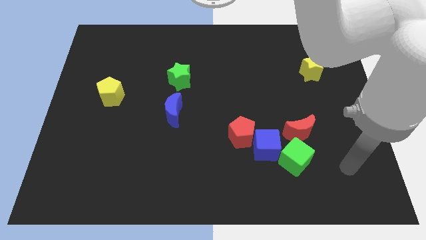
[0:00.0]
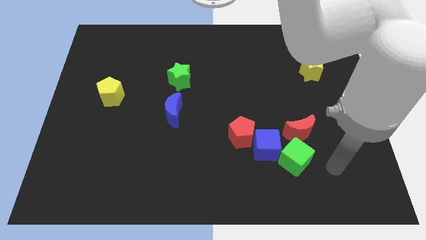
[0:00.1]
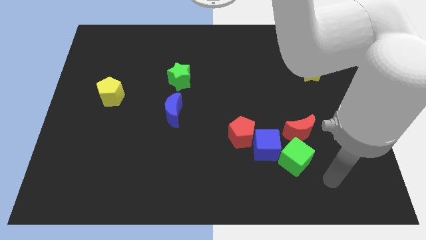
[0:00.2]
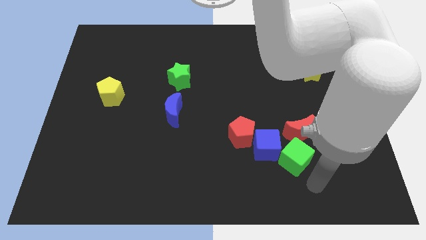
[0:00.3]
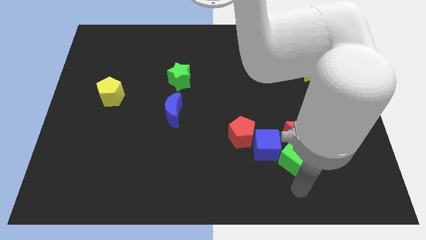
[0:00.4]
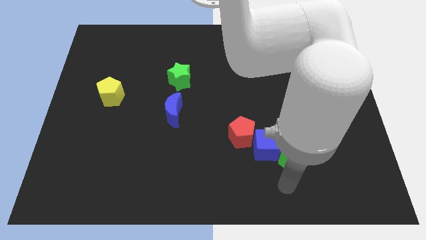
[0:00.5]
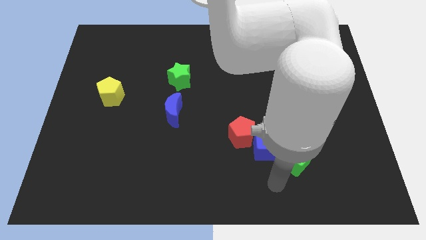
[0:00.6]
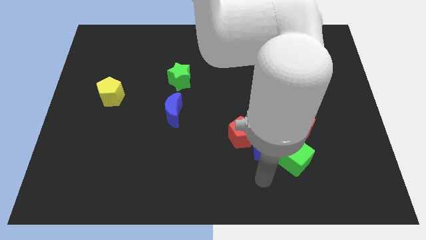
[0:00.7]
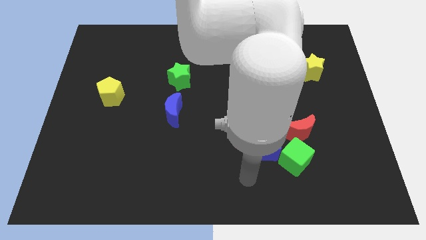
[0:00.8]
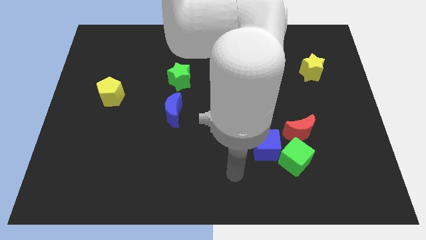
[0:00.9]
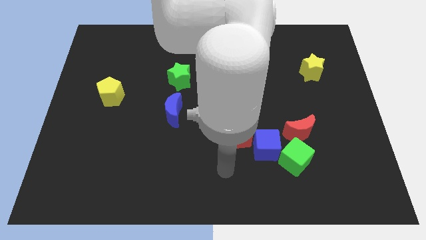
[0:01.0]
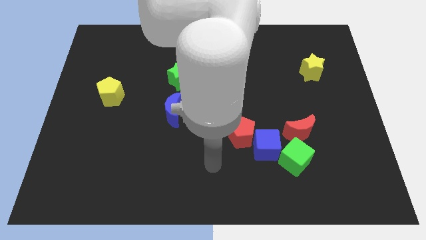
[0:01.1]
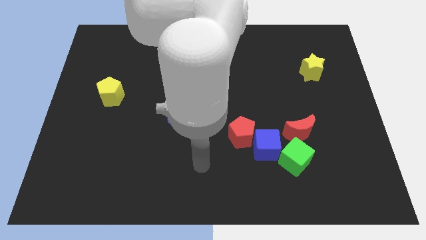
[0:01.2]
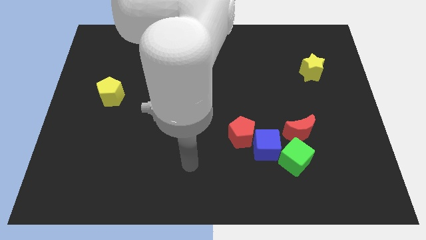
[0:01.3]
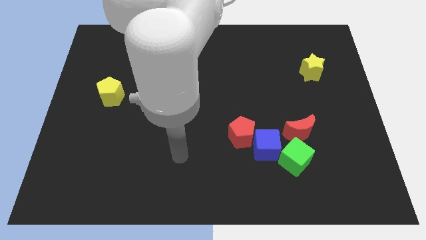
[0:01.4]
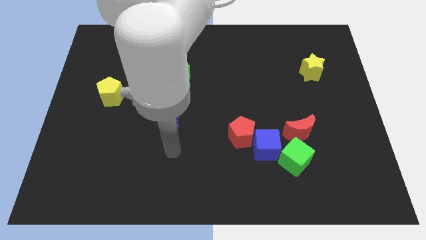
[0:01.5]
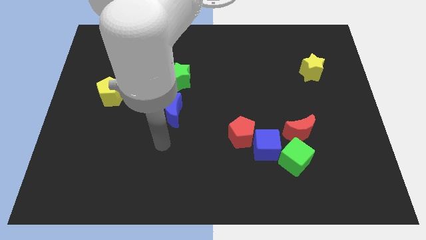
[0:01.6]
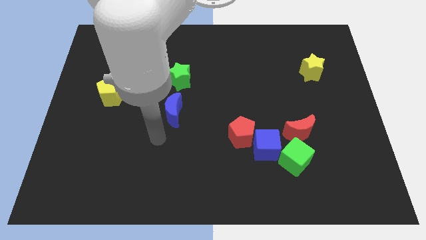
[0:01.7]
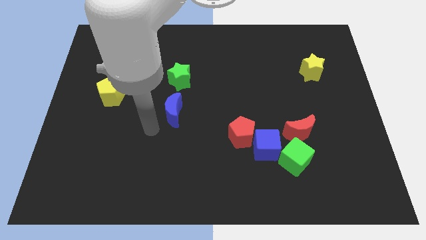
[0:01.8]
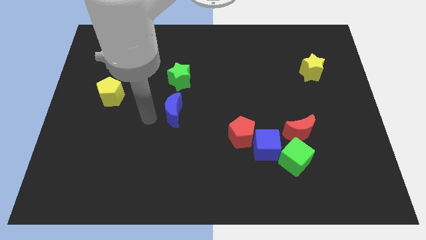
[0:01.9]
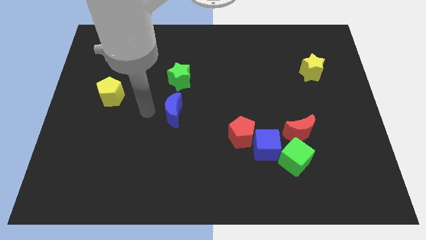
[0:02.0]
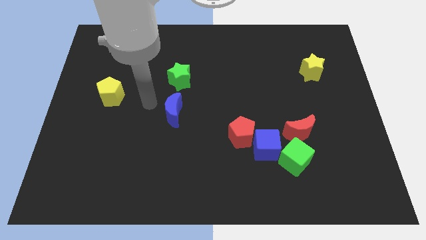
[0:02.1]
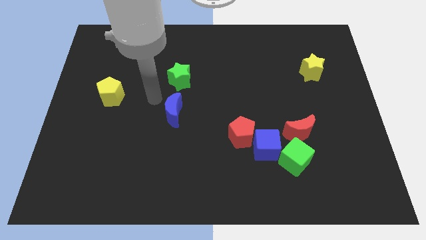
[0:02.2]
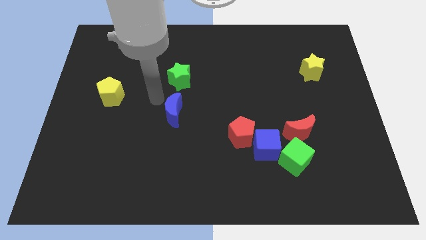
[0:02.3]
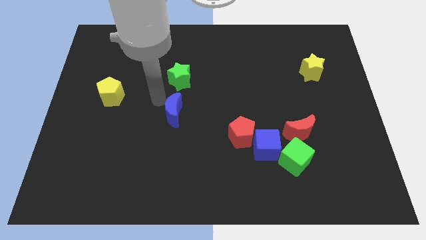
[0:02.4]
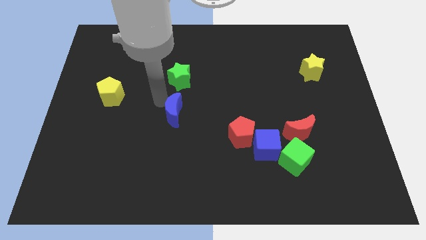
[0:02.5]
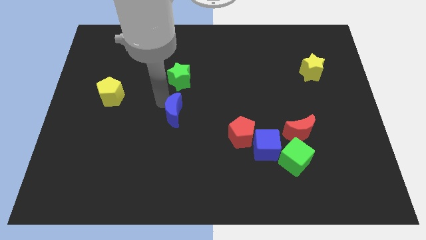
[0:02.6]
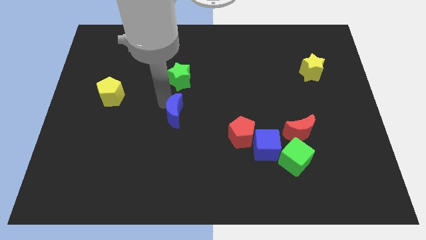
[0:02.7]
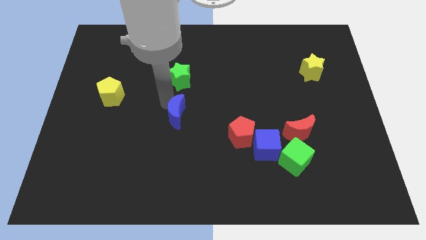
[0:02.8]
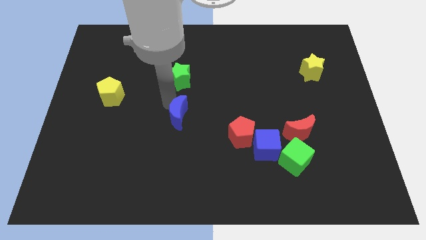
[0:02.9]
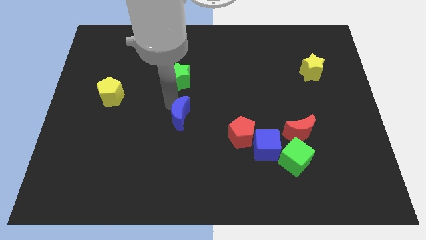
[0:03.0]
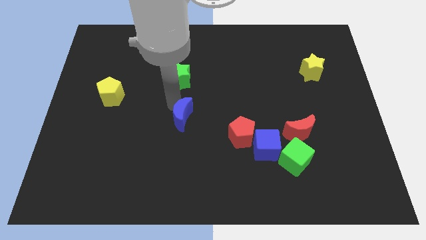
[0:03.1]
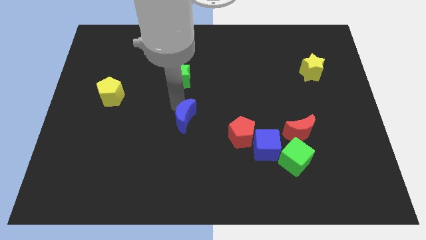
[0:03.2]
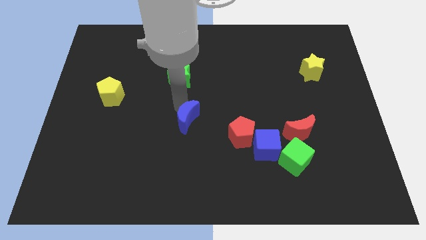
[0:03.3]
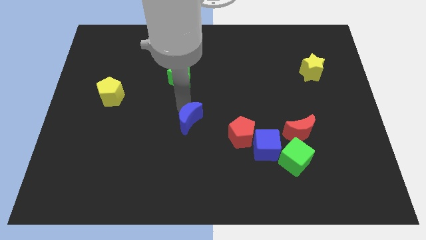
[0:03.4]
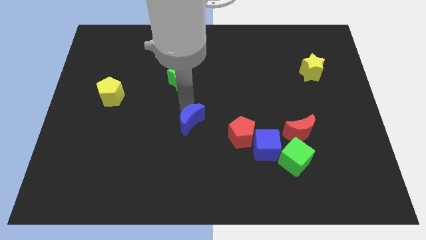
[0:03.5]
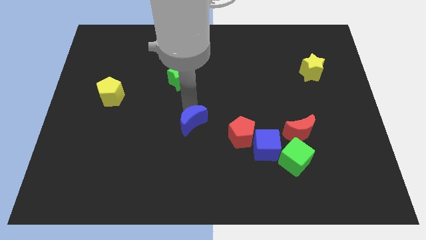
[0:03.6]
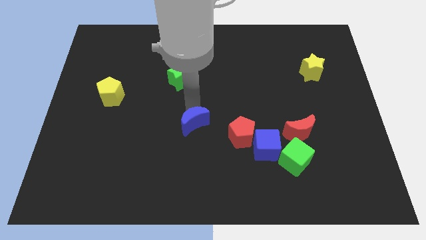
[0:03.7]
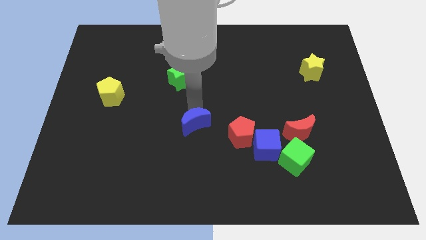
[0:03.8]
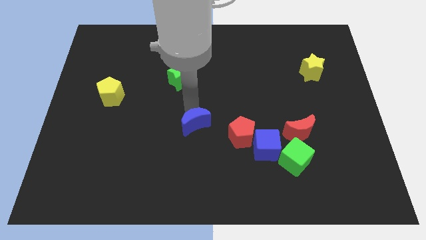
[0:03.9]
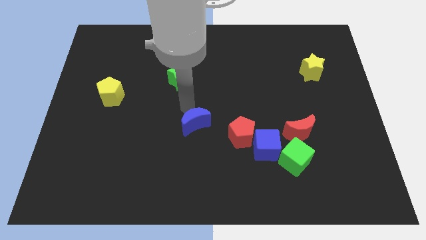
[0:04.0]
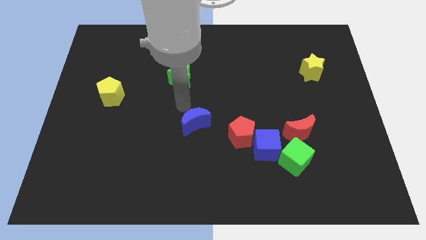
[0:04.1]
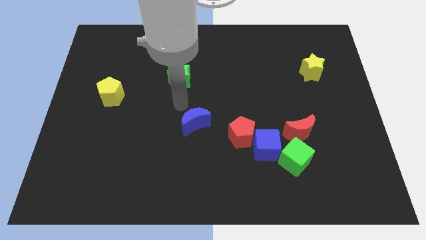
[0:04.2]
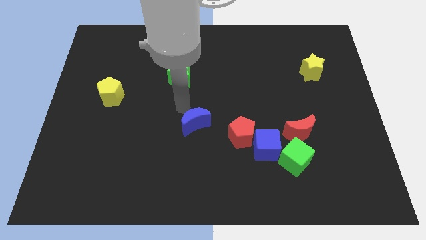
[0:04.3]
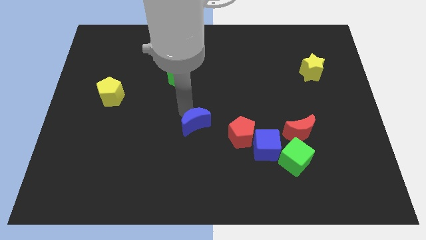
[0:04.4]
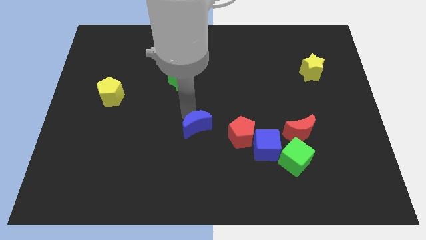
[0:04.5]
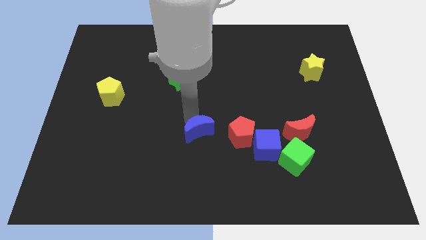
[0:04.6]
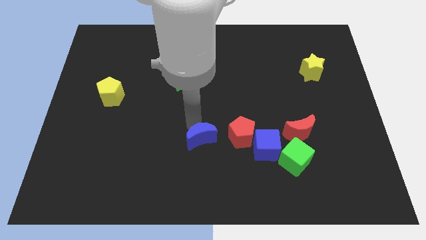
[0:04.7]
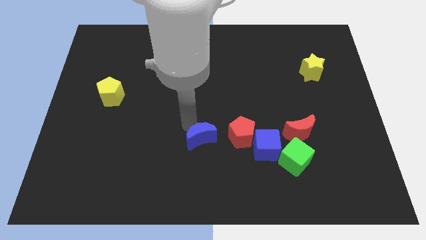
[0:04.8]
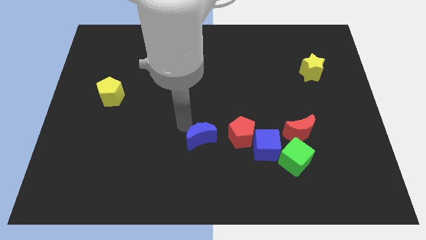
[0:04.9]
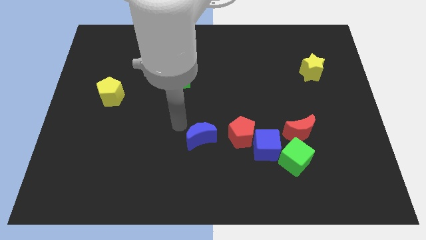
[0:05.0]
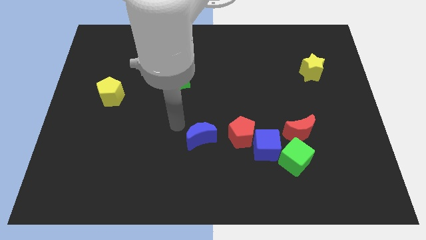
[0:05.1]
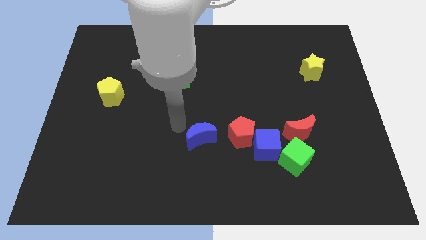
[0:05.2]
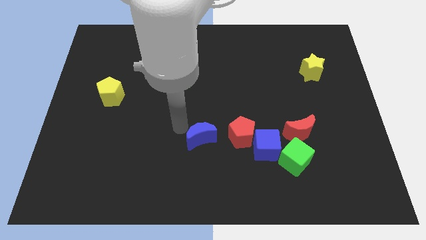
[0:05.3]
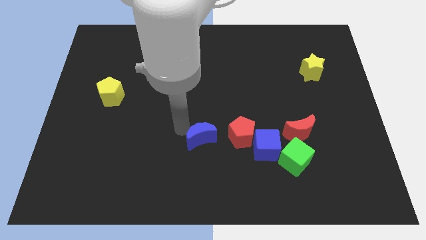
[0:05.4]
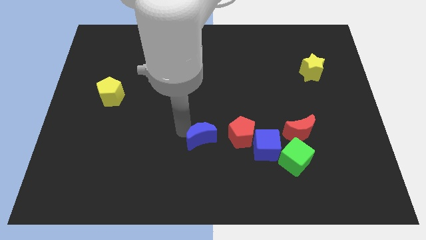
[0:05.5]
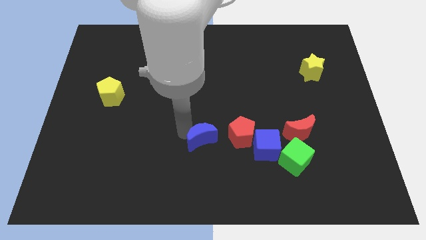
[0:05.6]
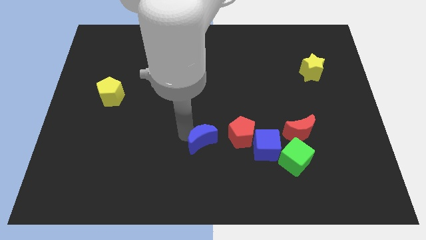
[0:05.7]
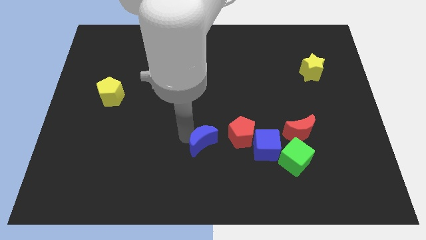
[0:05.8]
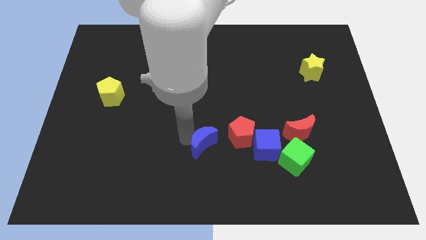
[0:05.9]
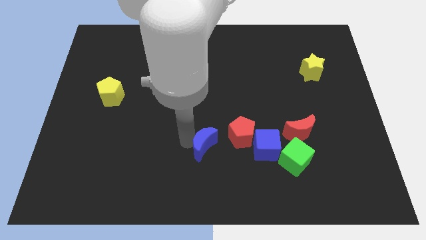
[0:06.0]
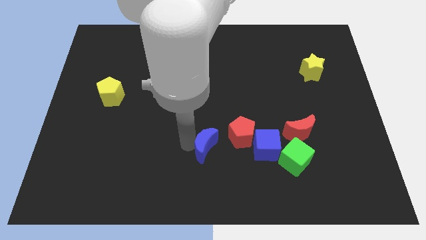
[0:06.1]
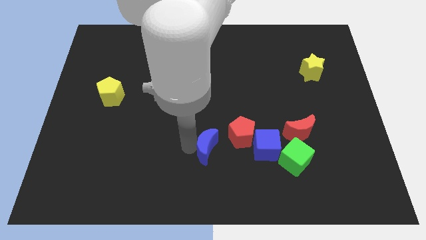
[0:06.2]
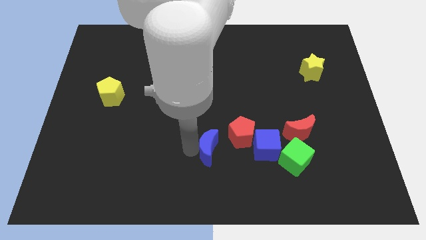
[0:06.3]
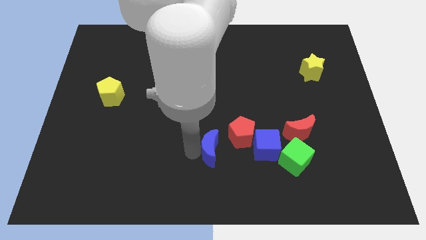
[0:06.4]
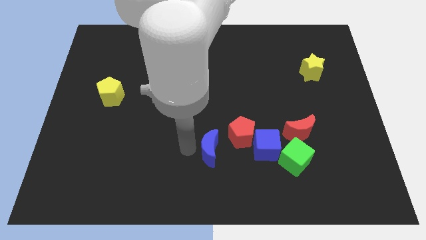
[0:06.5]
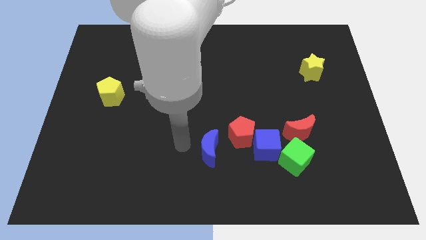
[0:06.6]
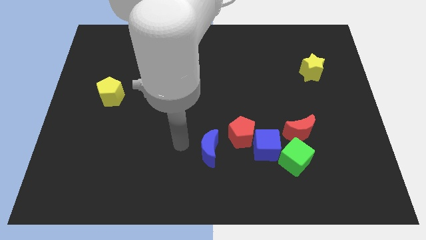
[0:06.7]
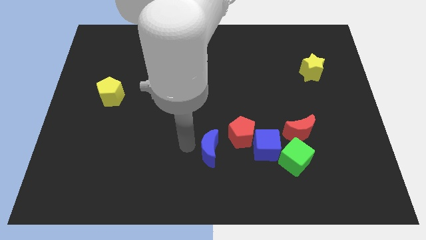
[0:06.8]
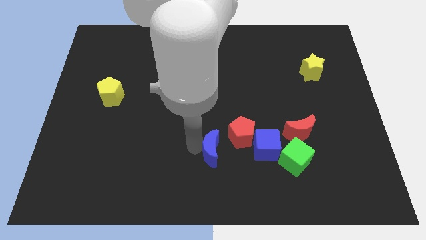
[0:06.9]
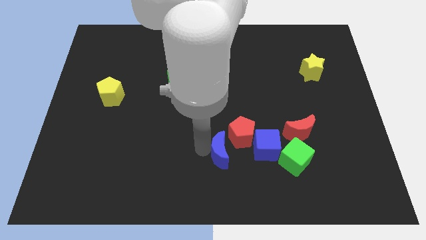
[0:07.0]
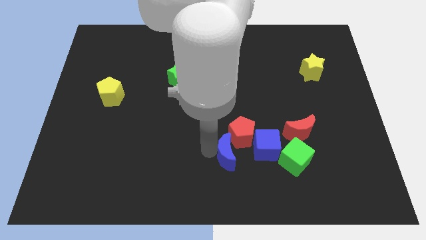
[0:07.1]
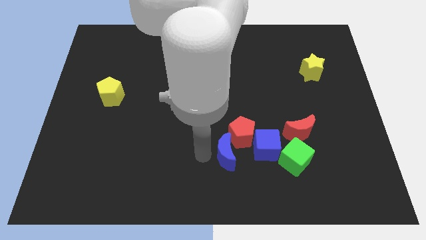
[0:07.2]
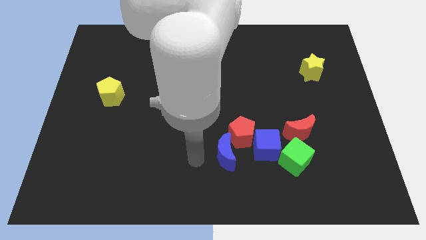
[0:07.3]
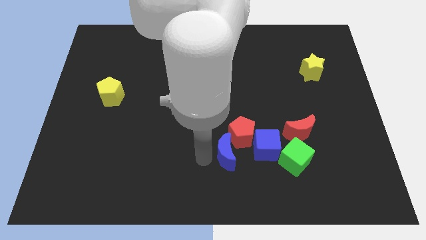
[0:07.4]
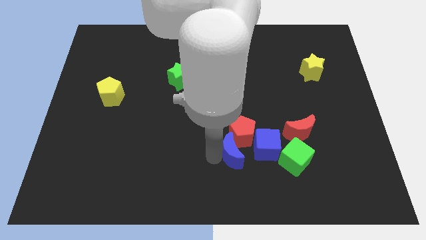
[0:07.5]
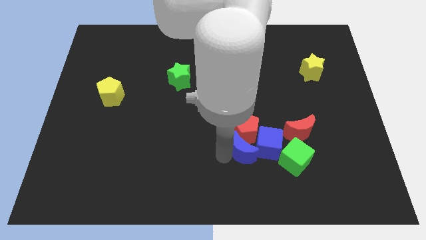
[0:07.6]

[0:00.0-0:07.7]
push the blue moon towards the blue cube

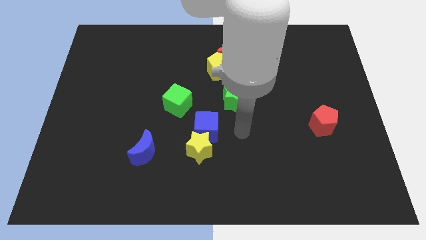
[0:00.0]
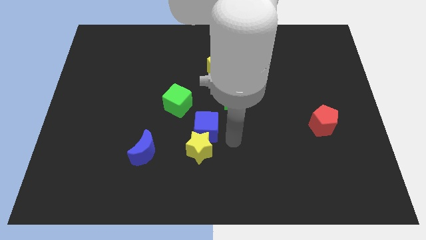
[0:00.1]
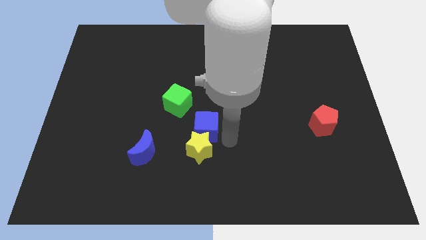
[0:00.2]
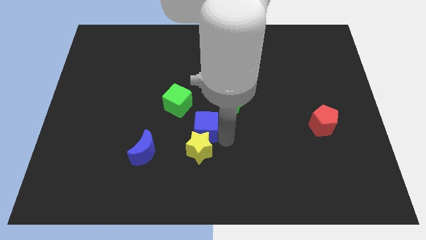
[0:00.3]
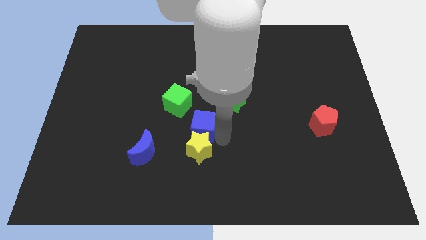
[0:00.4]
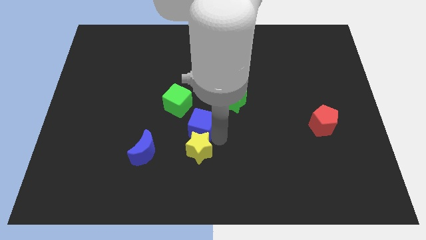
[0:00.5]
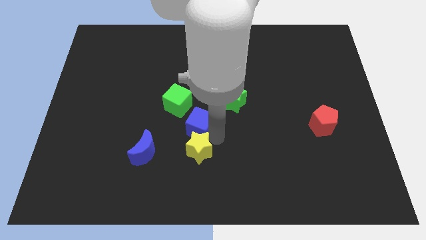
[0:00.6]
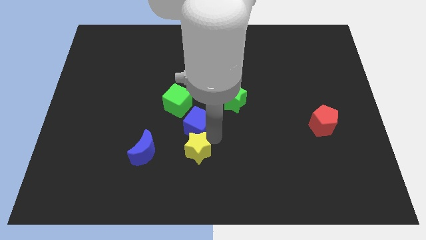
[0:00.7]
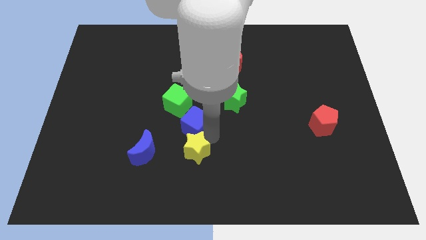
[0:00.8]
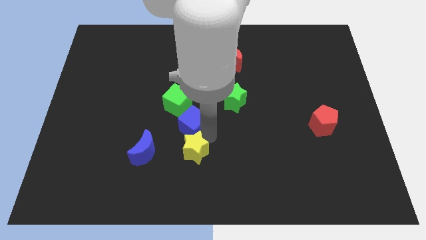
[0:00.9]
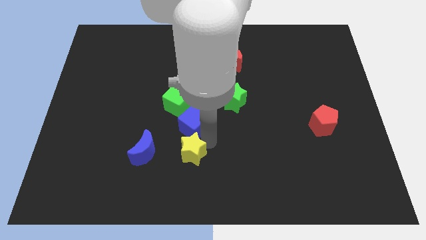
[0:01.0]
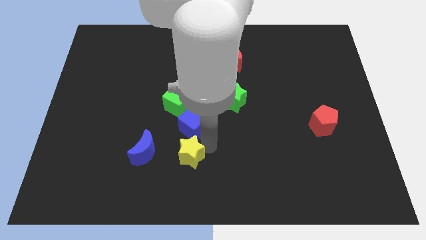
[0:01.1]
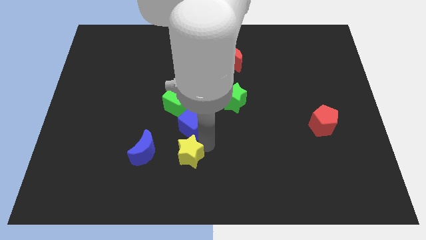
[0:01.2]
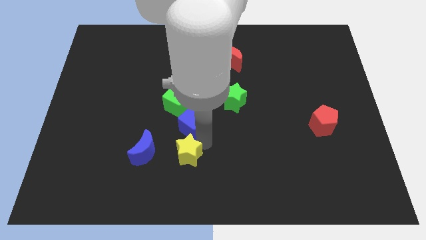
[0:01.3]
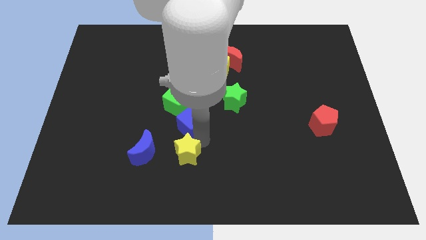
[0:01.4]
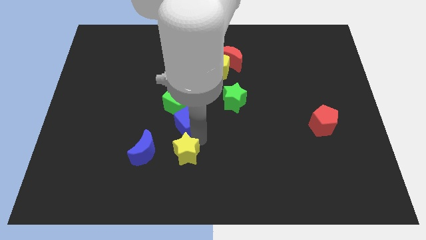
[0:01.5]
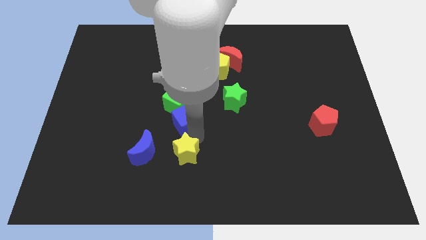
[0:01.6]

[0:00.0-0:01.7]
push the blue cube towards the green cube
